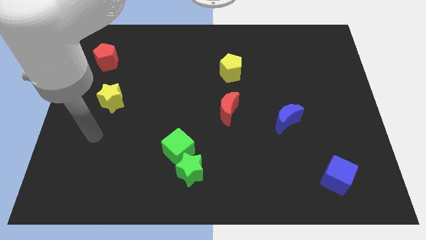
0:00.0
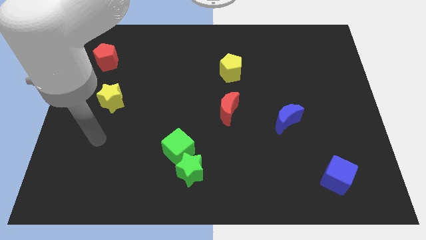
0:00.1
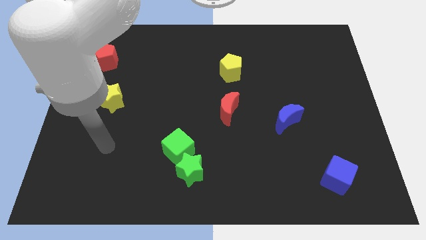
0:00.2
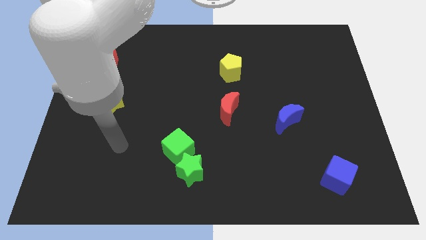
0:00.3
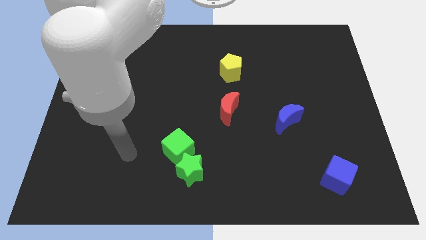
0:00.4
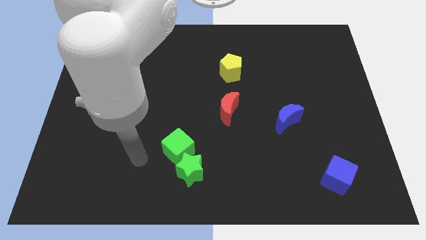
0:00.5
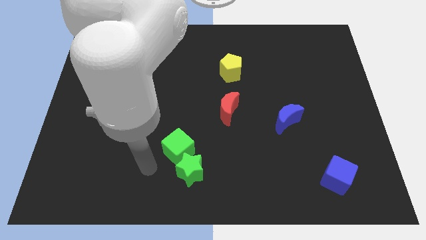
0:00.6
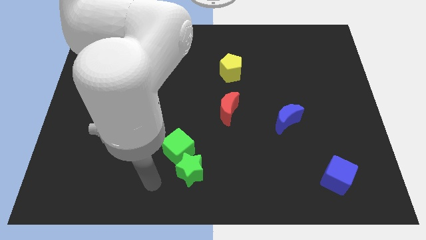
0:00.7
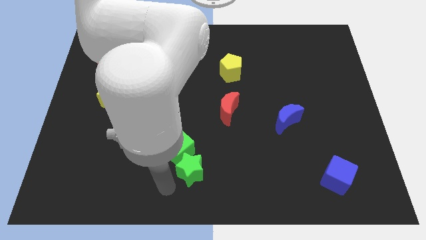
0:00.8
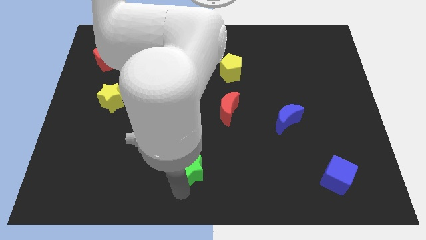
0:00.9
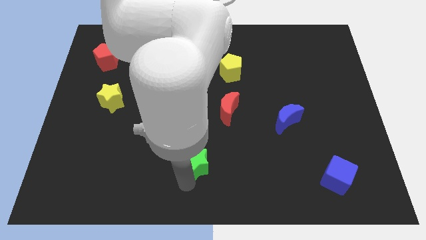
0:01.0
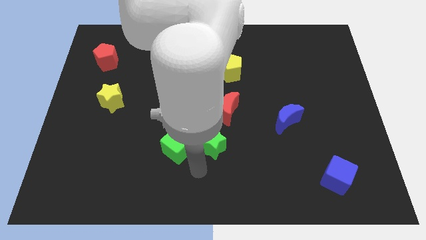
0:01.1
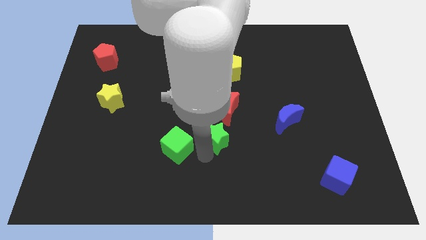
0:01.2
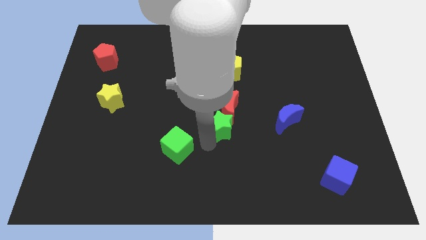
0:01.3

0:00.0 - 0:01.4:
pull the green cube apart from the green star

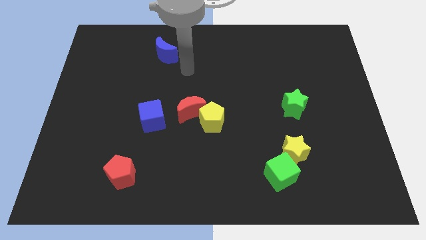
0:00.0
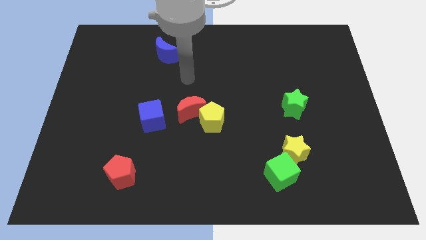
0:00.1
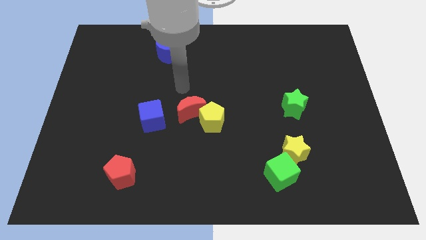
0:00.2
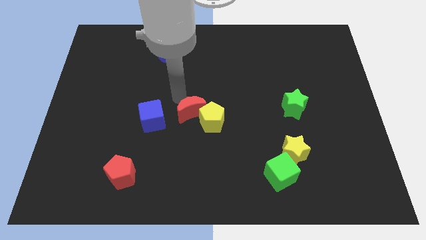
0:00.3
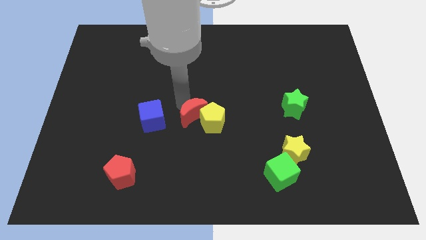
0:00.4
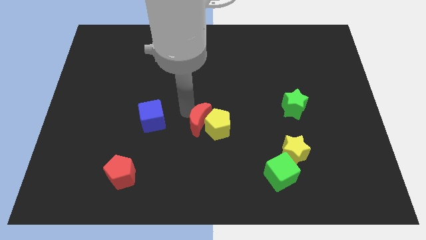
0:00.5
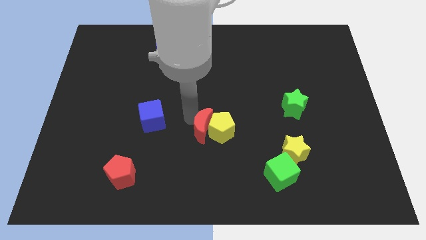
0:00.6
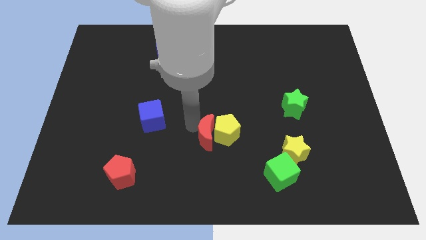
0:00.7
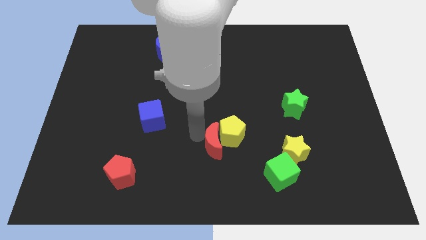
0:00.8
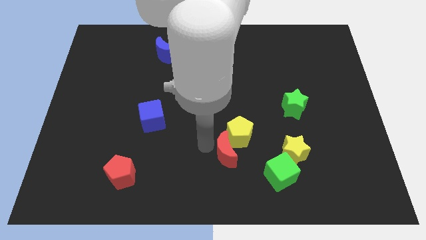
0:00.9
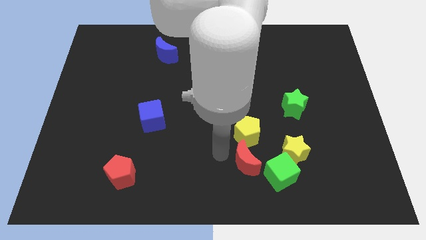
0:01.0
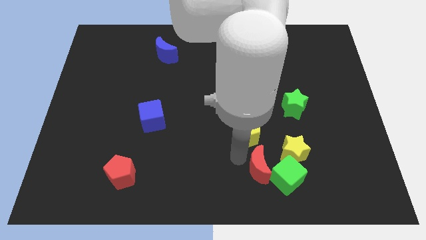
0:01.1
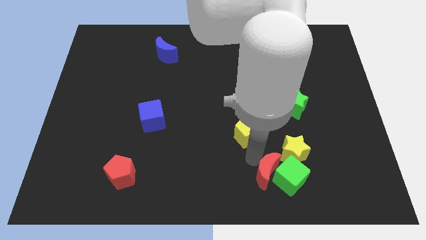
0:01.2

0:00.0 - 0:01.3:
pull the yellow pentagon apart from the red moon

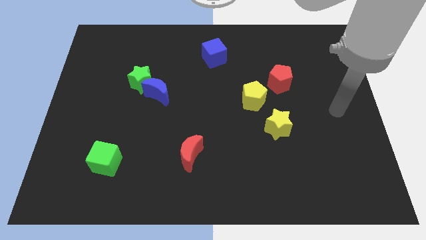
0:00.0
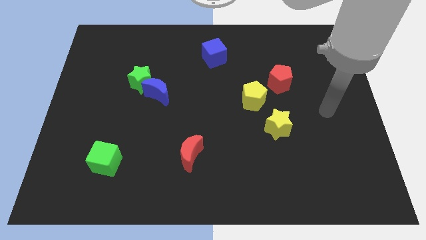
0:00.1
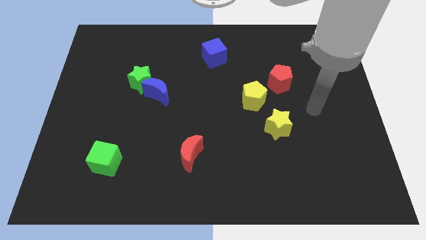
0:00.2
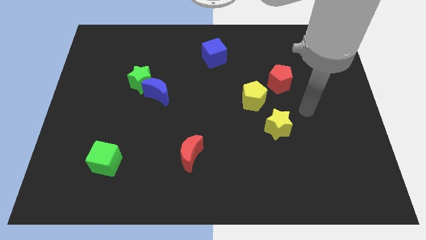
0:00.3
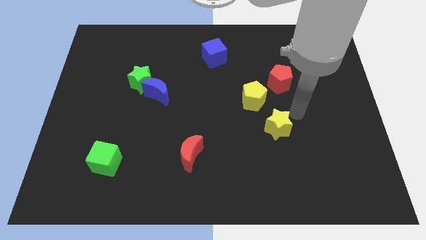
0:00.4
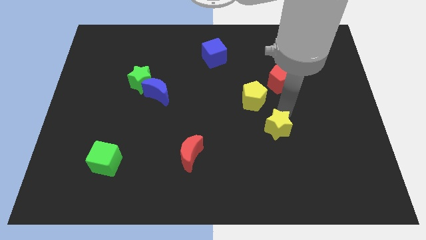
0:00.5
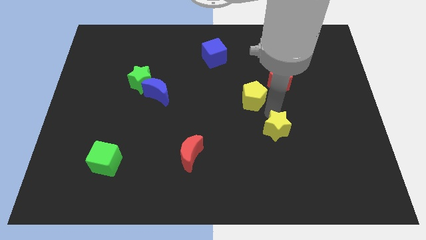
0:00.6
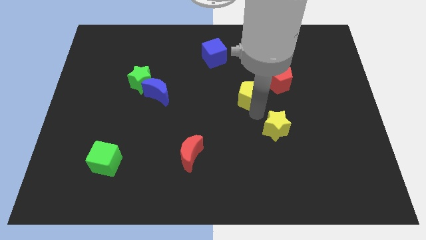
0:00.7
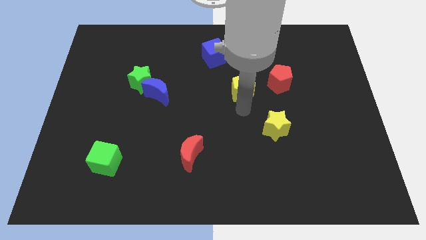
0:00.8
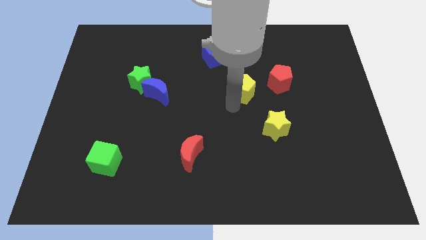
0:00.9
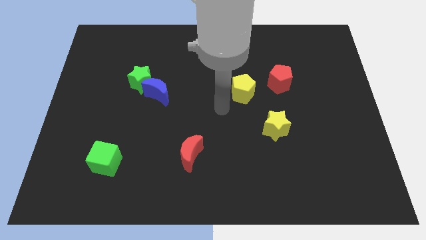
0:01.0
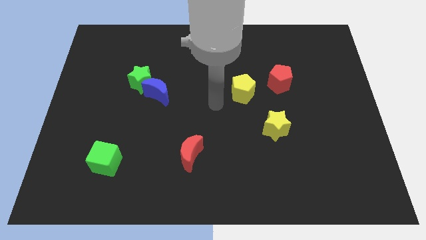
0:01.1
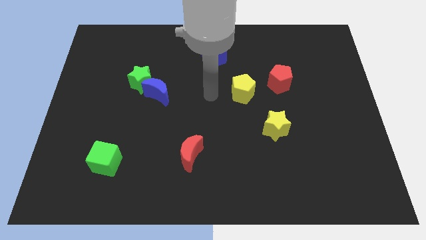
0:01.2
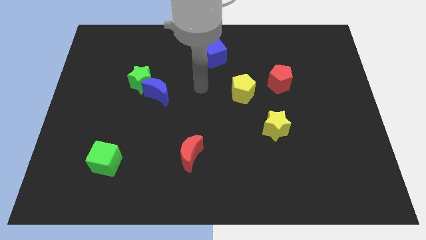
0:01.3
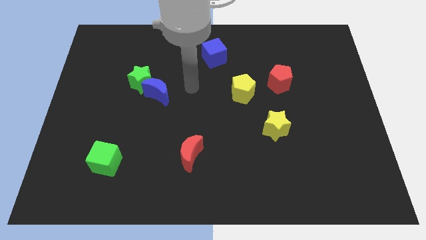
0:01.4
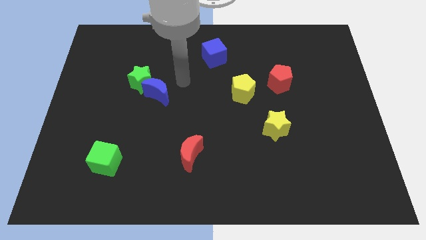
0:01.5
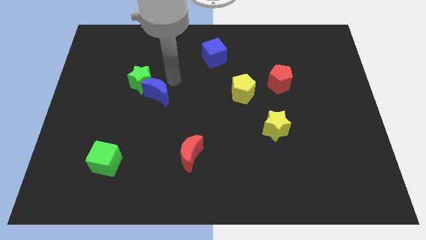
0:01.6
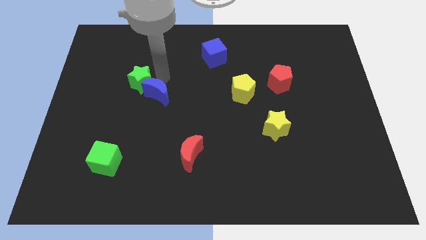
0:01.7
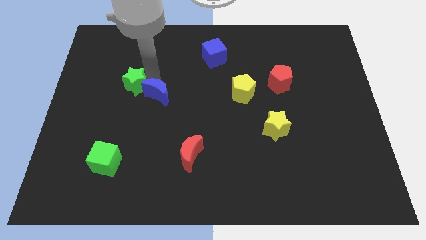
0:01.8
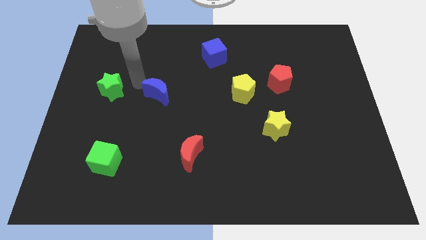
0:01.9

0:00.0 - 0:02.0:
move the blue moon away from the green star

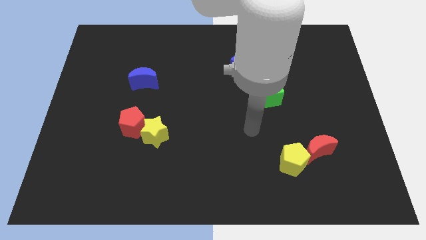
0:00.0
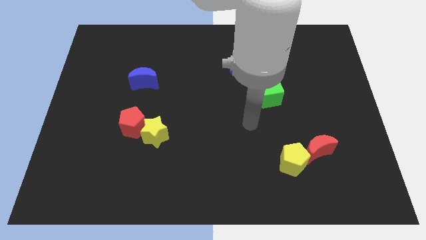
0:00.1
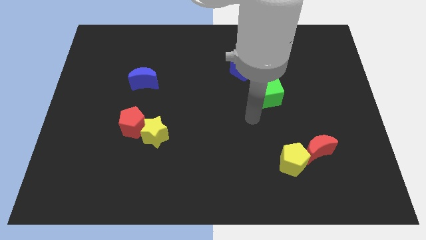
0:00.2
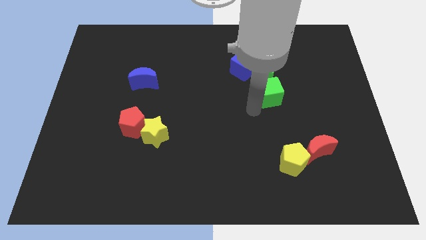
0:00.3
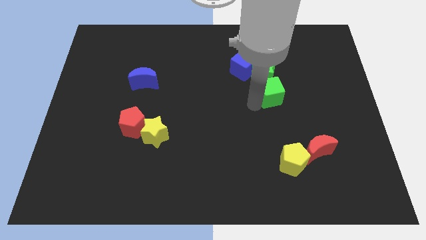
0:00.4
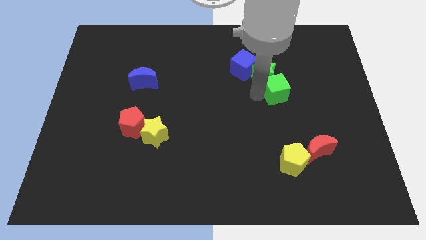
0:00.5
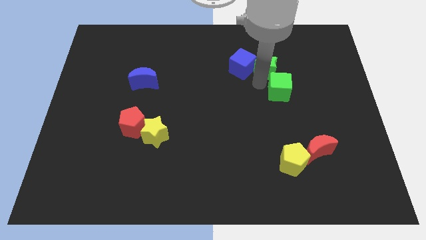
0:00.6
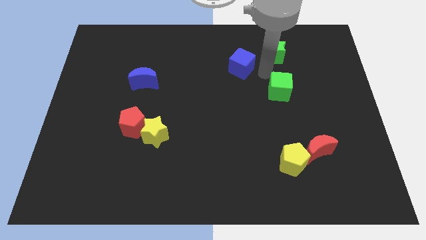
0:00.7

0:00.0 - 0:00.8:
move the blue cube away from the green star

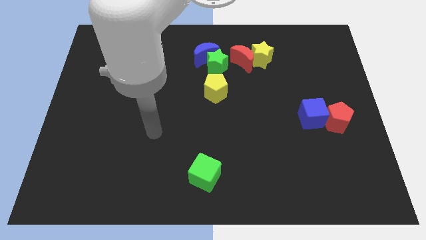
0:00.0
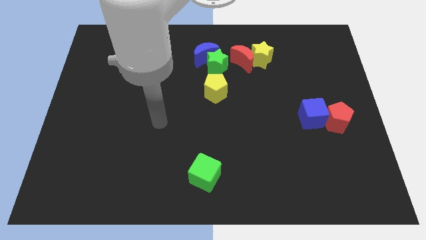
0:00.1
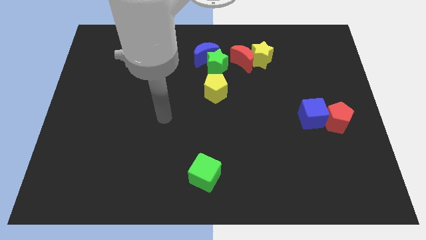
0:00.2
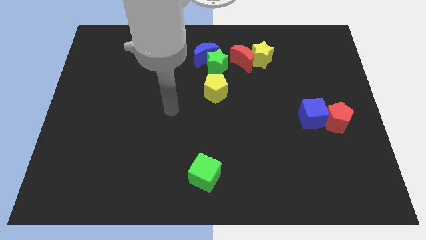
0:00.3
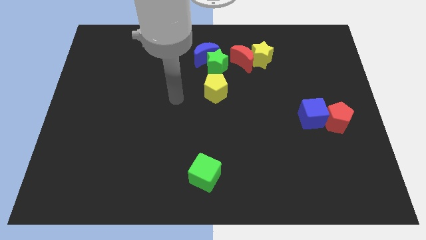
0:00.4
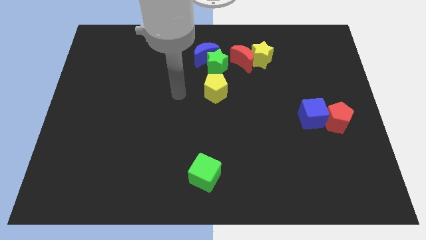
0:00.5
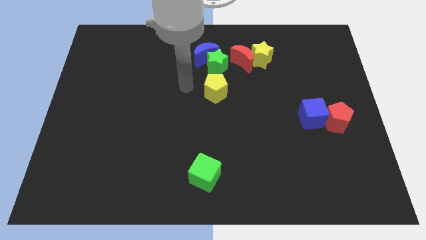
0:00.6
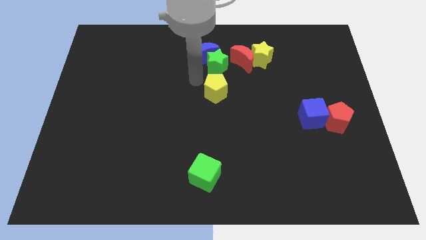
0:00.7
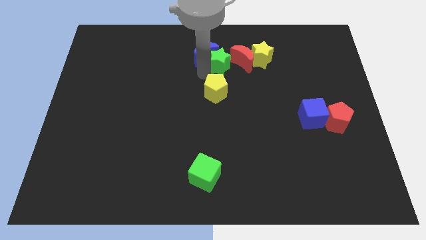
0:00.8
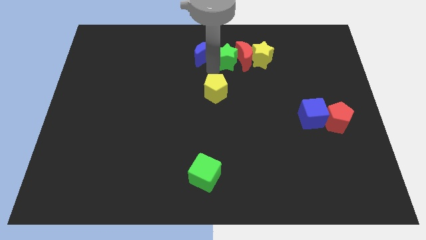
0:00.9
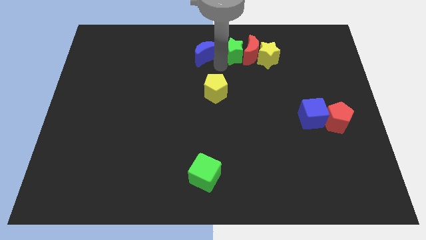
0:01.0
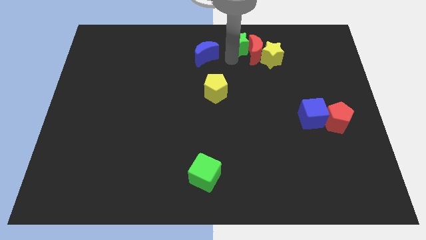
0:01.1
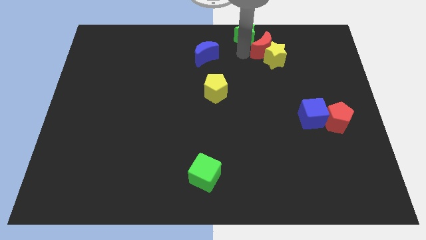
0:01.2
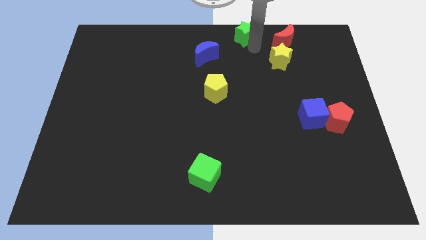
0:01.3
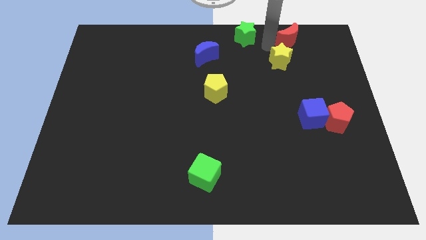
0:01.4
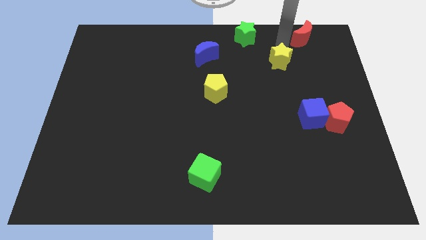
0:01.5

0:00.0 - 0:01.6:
move the yellow star away from the red moon

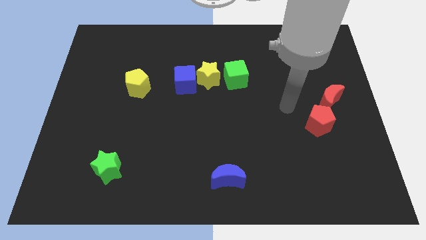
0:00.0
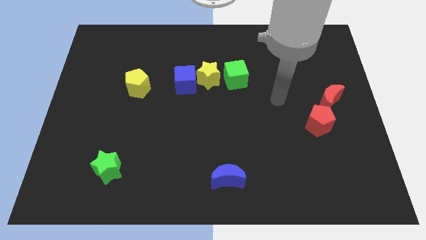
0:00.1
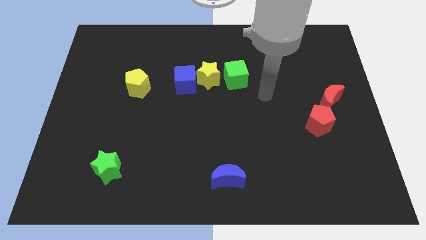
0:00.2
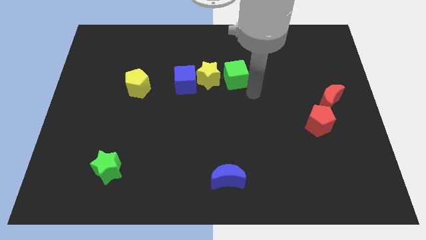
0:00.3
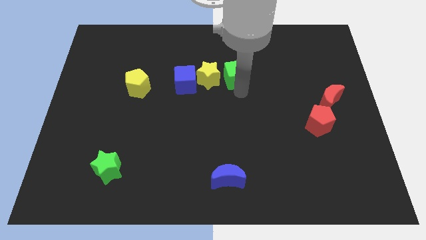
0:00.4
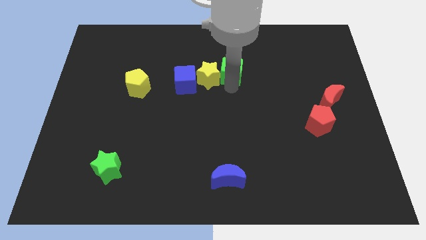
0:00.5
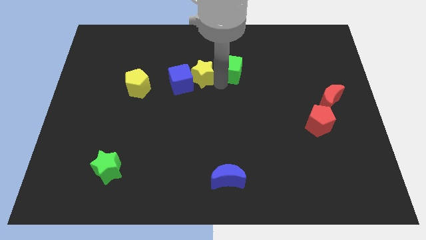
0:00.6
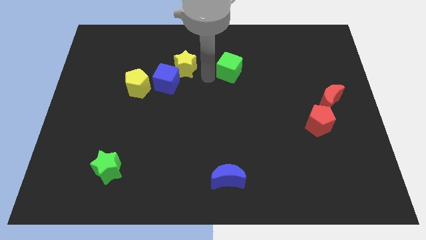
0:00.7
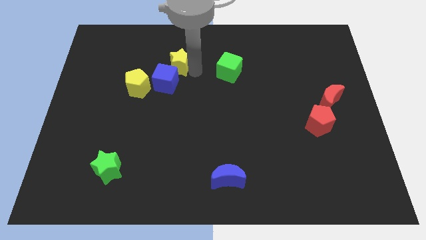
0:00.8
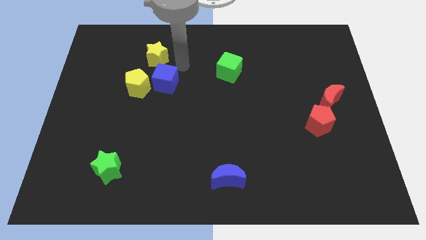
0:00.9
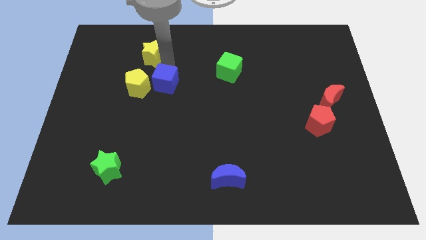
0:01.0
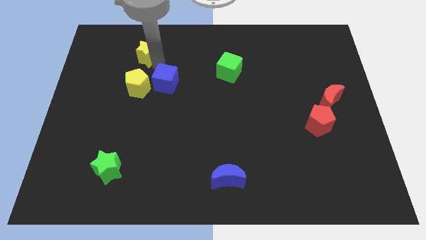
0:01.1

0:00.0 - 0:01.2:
separate the blue cube from the yellow star

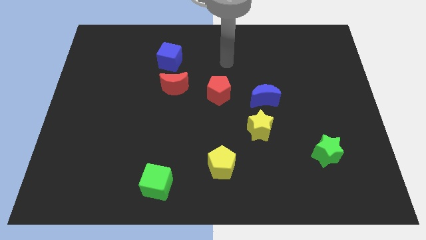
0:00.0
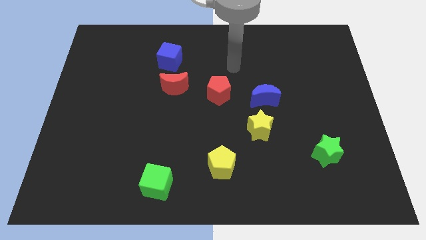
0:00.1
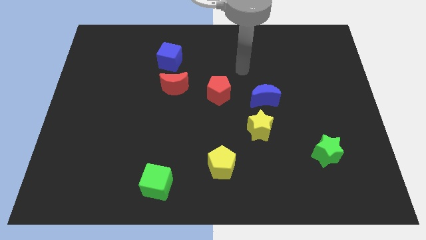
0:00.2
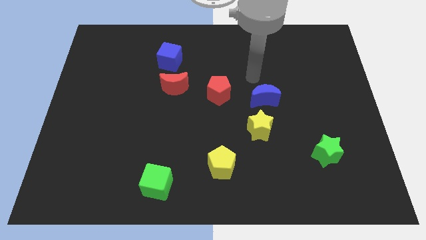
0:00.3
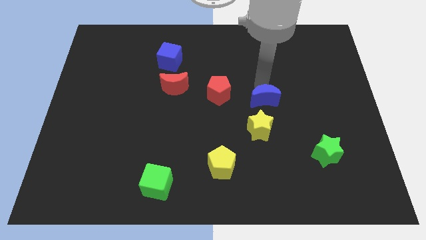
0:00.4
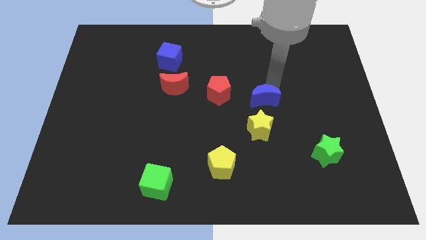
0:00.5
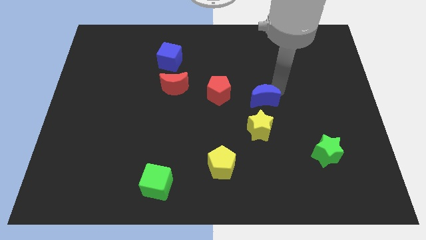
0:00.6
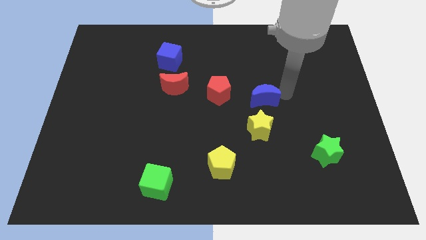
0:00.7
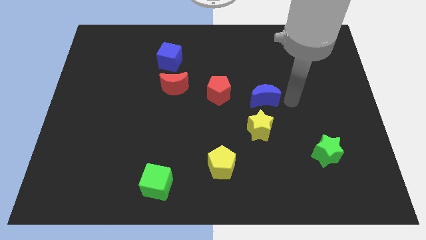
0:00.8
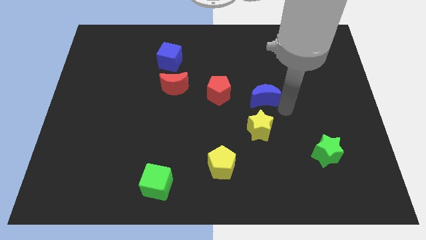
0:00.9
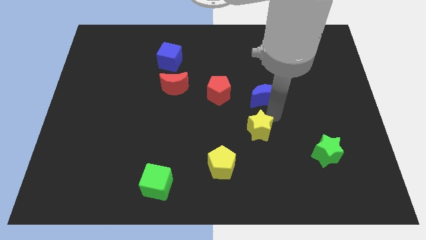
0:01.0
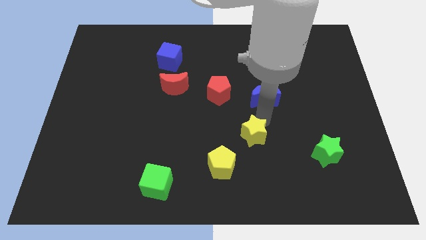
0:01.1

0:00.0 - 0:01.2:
pull the blue moon apart from the yellow star
